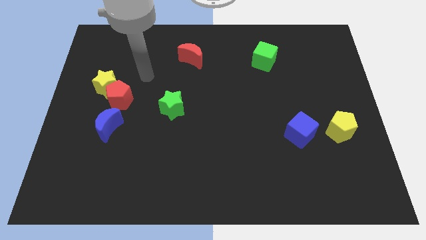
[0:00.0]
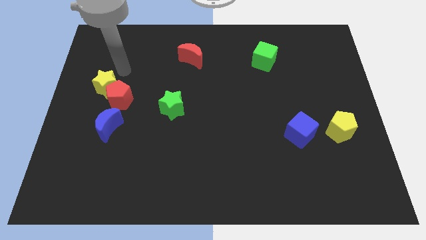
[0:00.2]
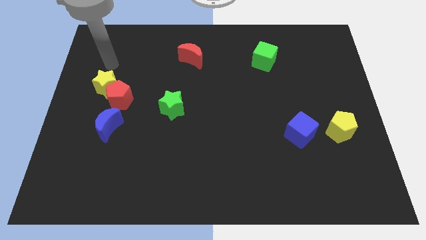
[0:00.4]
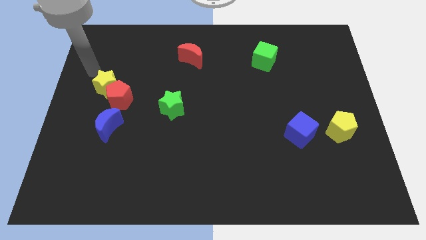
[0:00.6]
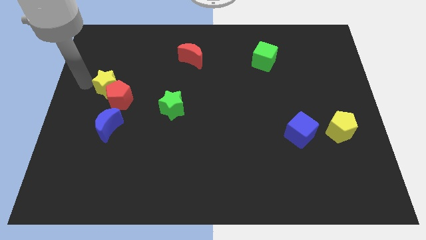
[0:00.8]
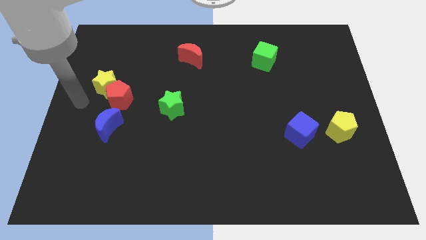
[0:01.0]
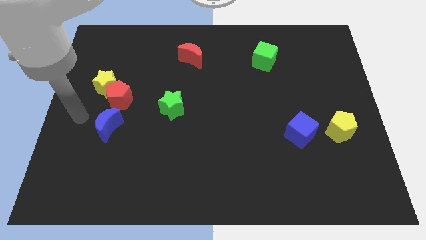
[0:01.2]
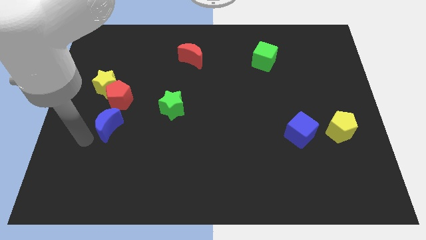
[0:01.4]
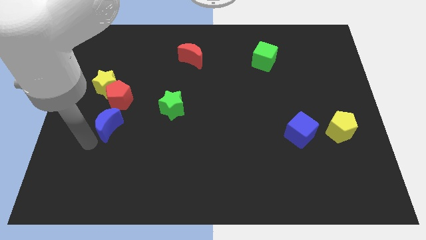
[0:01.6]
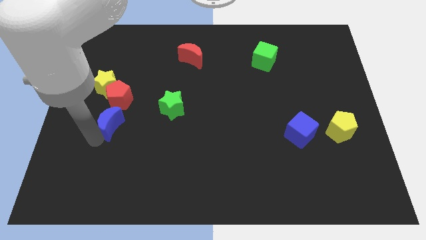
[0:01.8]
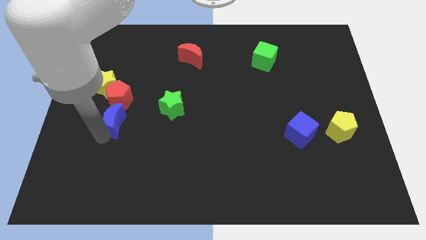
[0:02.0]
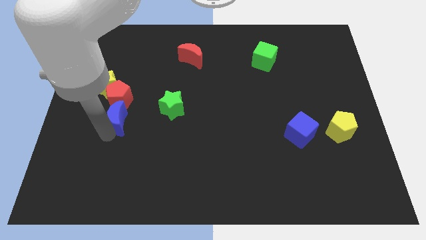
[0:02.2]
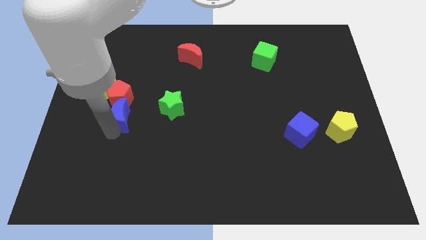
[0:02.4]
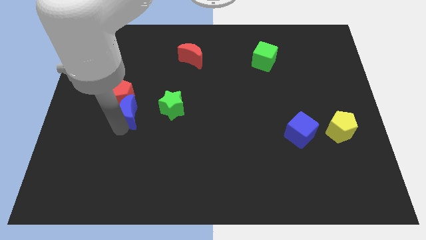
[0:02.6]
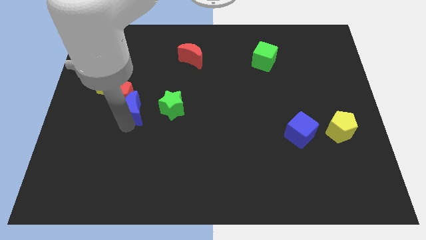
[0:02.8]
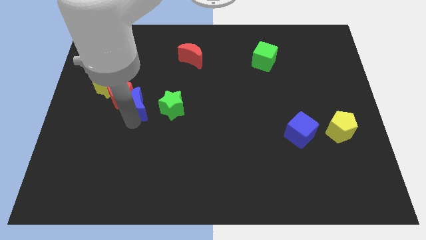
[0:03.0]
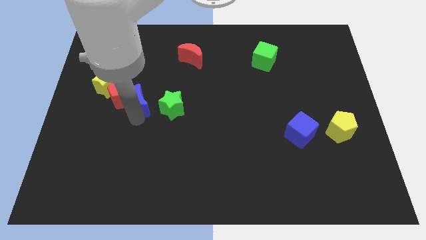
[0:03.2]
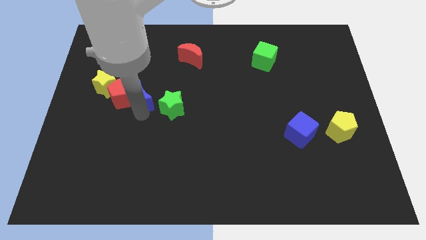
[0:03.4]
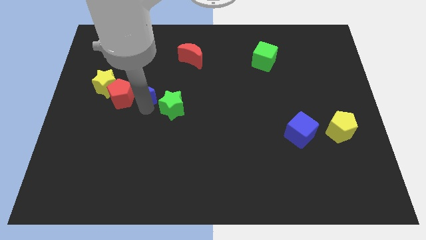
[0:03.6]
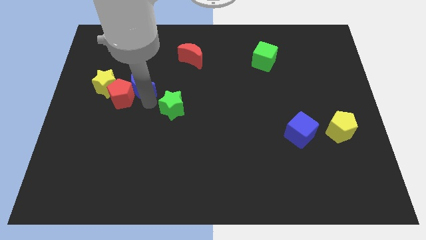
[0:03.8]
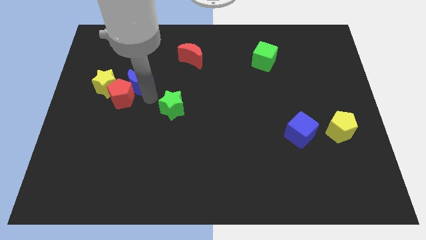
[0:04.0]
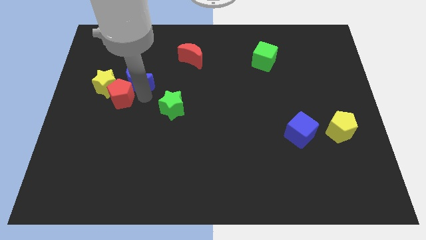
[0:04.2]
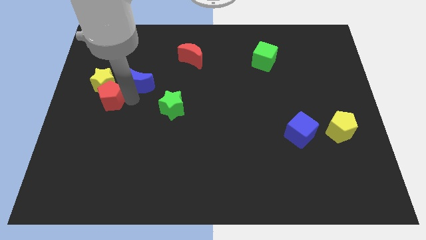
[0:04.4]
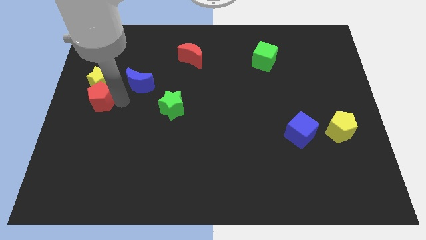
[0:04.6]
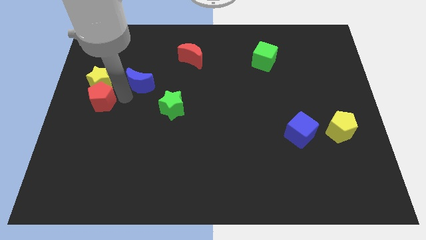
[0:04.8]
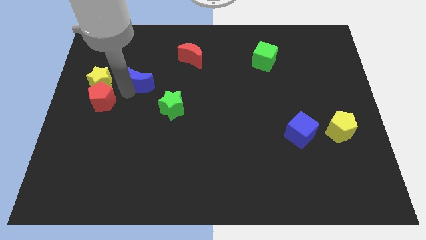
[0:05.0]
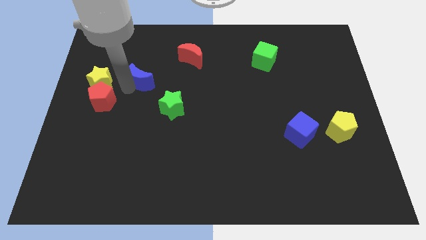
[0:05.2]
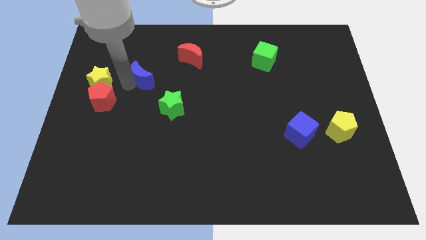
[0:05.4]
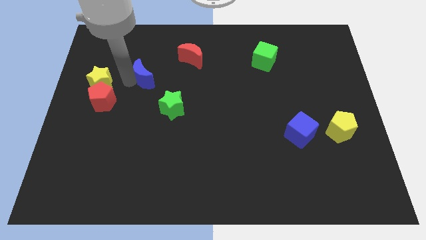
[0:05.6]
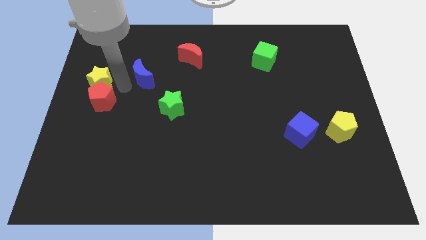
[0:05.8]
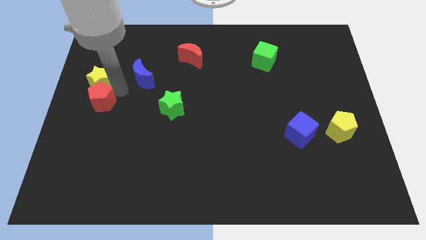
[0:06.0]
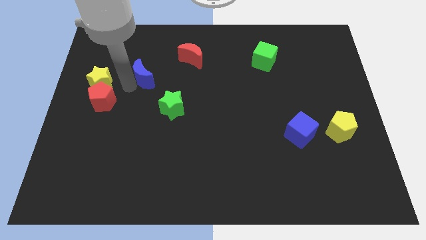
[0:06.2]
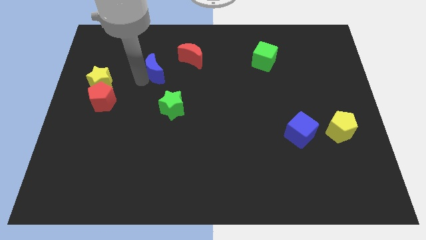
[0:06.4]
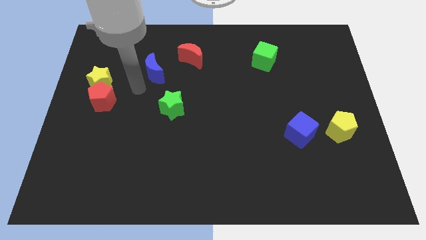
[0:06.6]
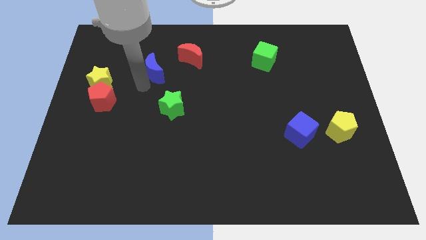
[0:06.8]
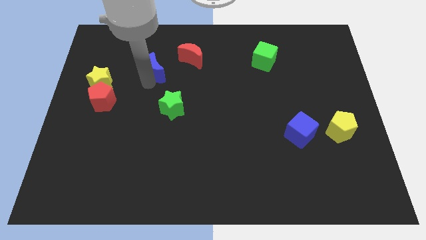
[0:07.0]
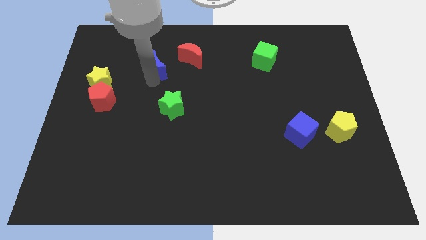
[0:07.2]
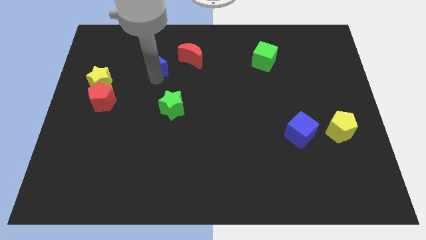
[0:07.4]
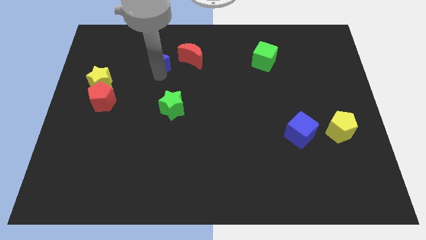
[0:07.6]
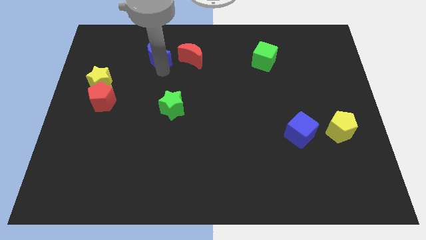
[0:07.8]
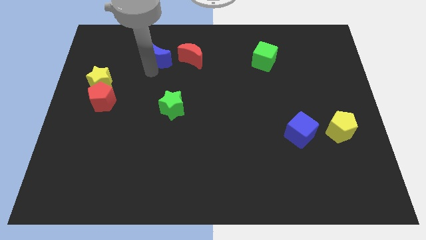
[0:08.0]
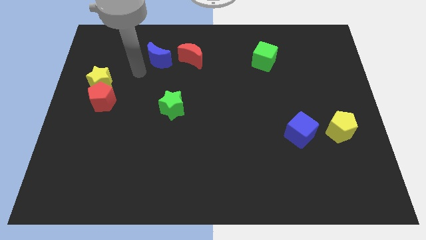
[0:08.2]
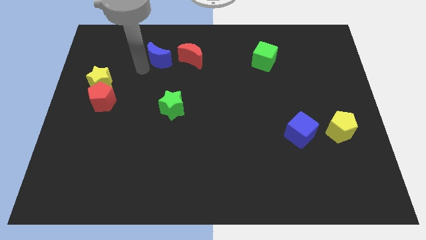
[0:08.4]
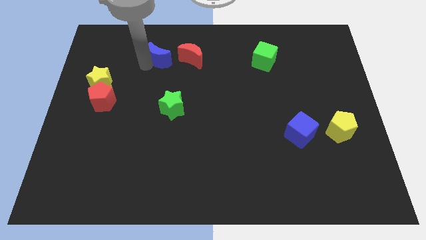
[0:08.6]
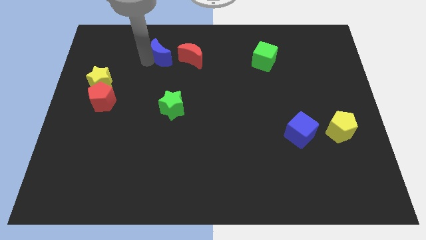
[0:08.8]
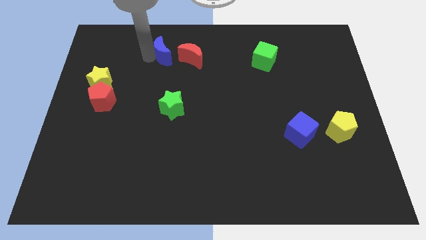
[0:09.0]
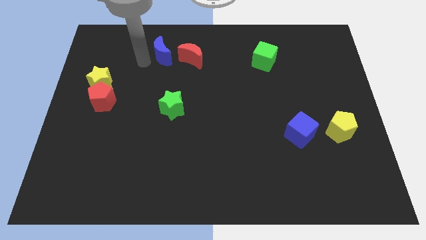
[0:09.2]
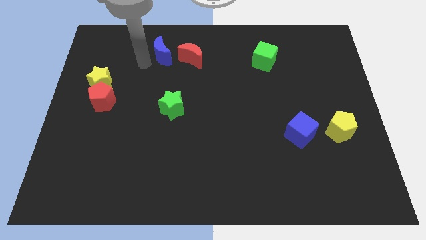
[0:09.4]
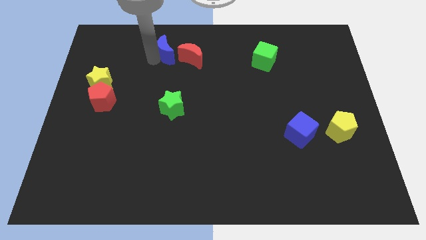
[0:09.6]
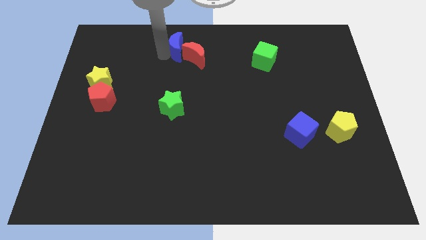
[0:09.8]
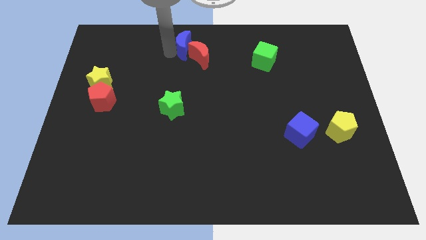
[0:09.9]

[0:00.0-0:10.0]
move the blue moon to the towards your base

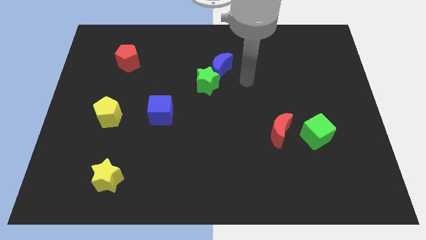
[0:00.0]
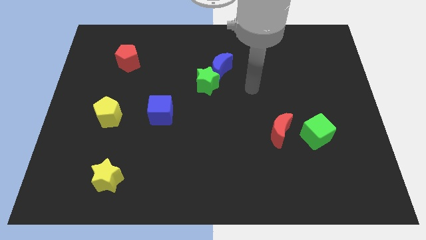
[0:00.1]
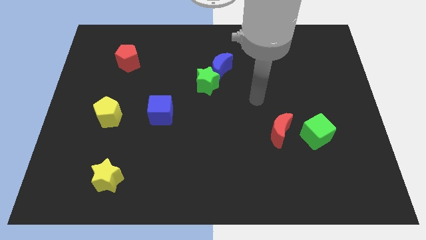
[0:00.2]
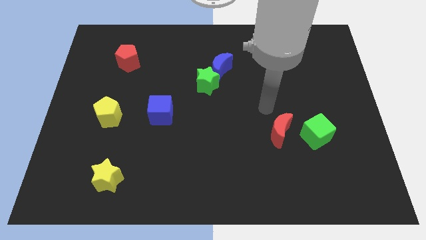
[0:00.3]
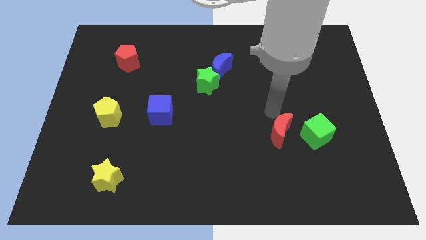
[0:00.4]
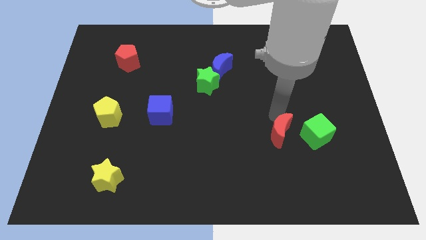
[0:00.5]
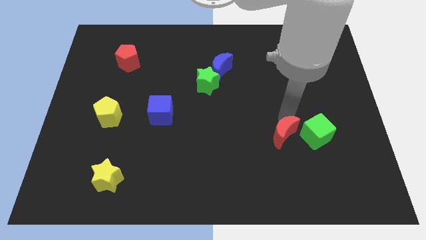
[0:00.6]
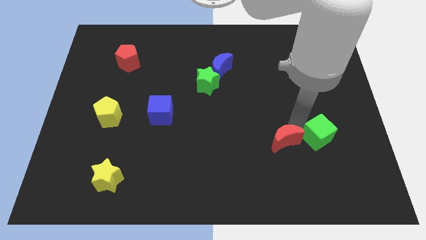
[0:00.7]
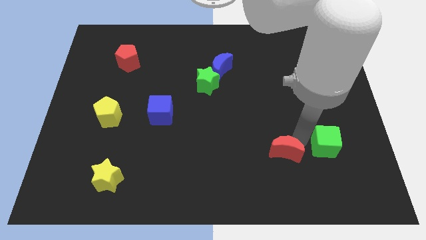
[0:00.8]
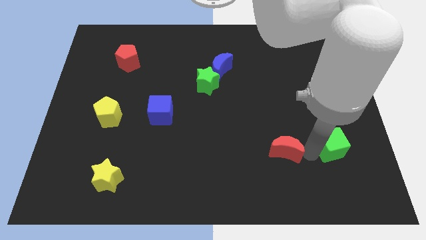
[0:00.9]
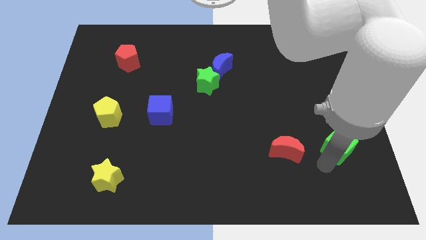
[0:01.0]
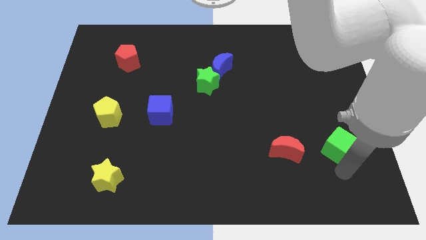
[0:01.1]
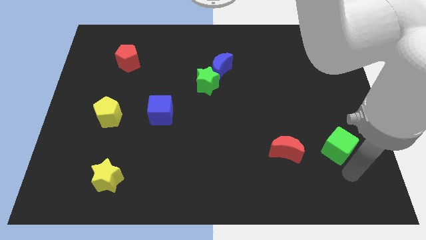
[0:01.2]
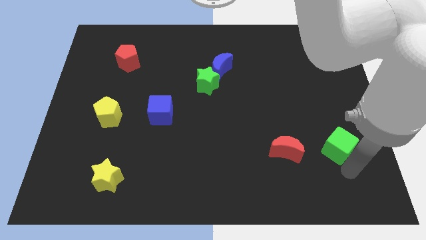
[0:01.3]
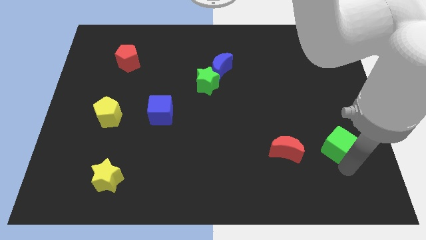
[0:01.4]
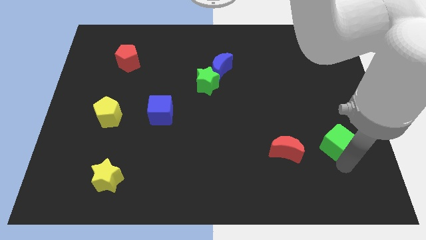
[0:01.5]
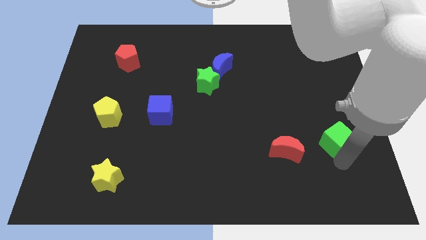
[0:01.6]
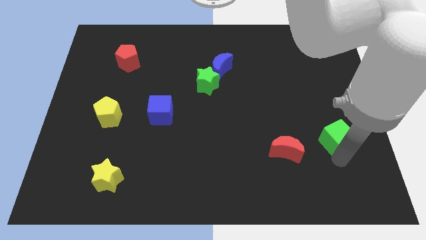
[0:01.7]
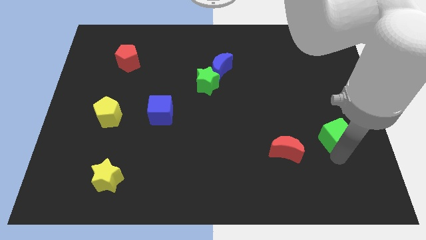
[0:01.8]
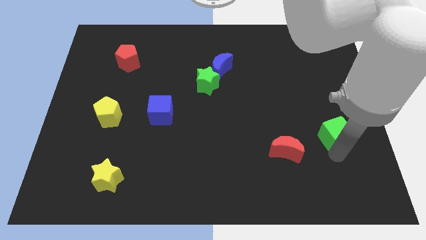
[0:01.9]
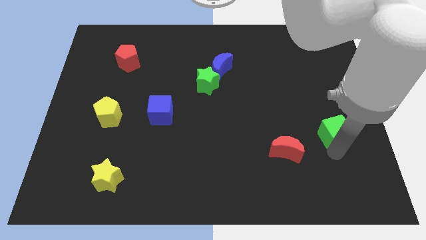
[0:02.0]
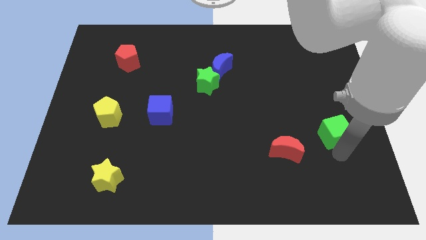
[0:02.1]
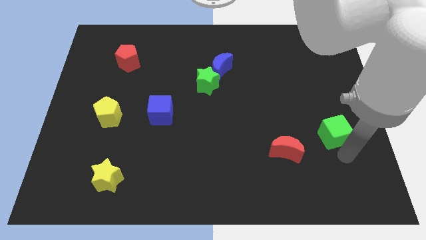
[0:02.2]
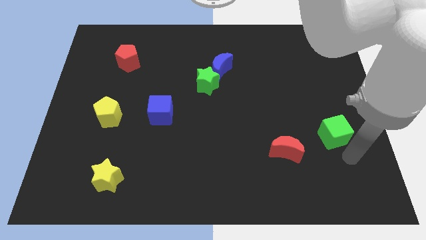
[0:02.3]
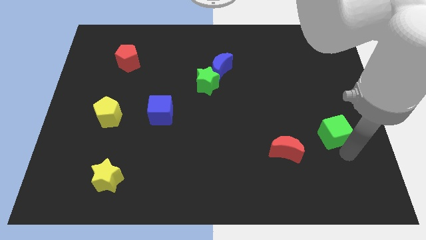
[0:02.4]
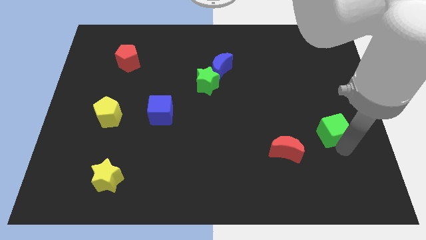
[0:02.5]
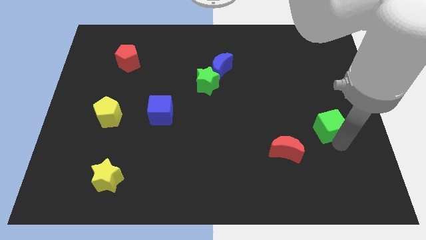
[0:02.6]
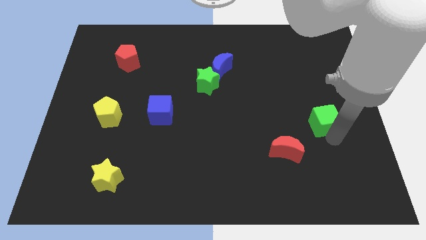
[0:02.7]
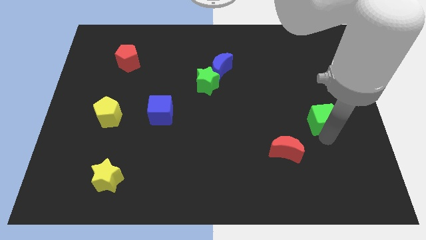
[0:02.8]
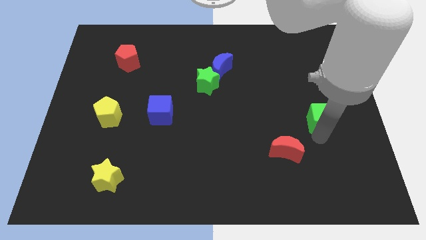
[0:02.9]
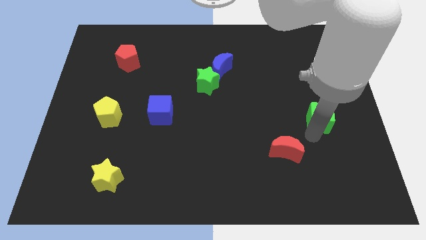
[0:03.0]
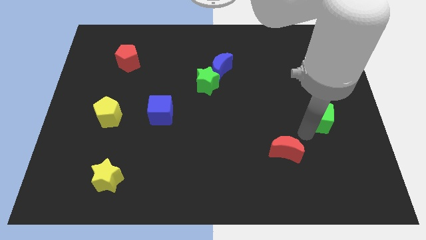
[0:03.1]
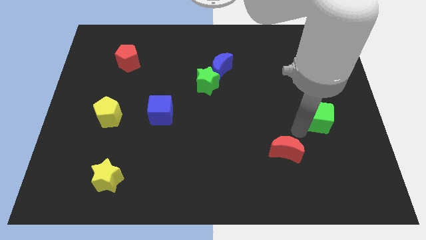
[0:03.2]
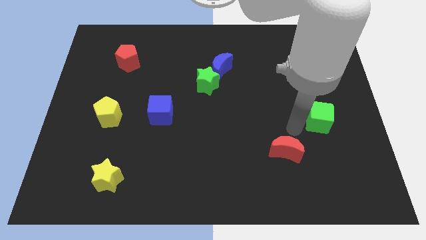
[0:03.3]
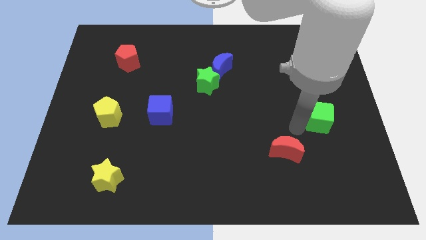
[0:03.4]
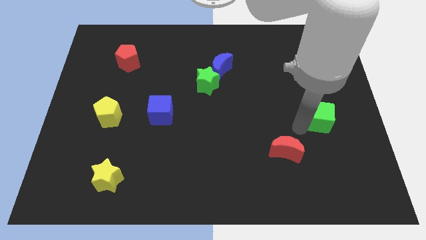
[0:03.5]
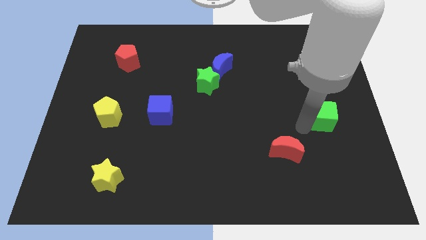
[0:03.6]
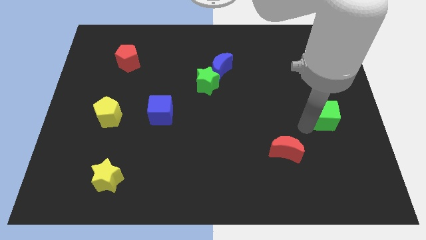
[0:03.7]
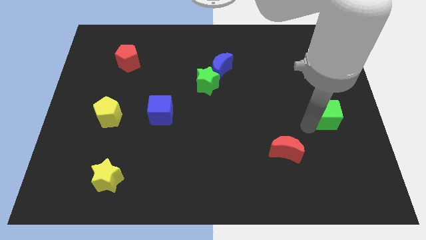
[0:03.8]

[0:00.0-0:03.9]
put the green cube to the right side

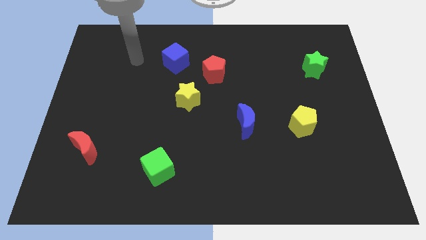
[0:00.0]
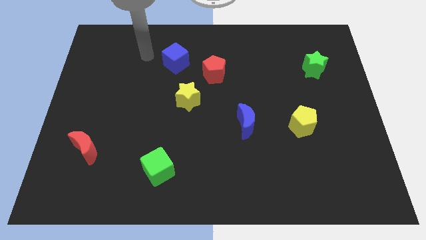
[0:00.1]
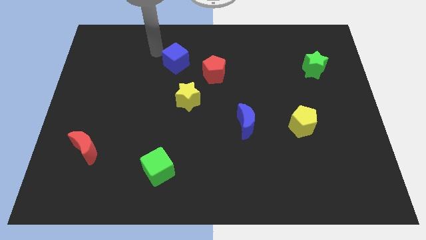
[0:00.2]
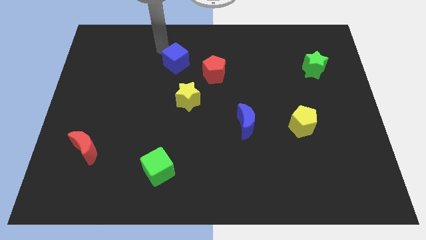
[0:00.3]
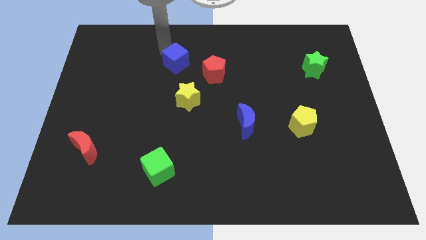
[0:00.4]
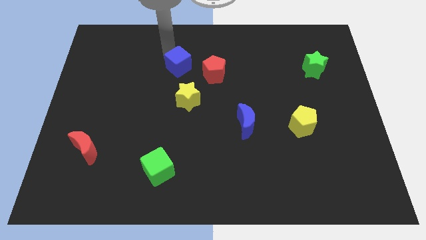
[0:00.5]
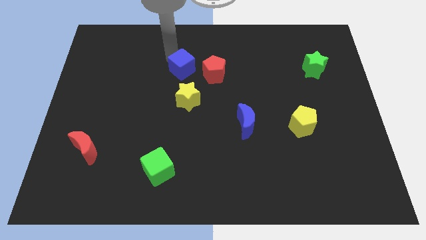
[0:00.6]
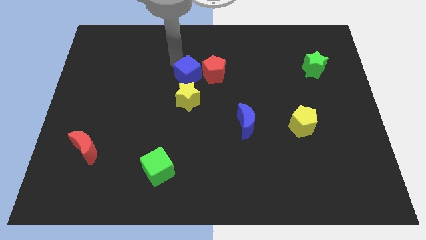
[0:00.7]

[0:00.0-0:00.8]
move the blue cube to the center of the board
